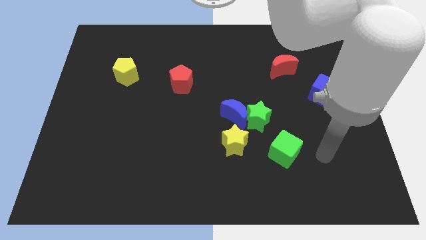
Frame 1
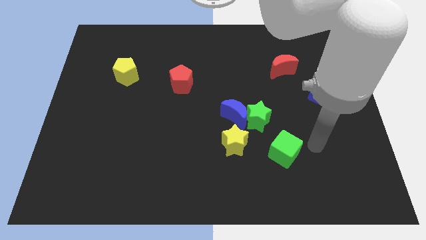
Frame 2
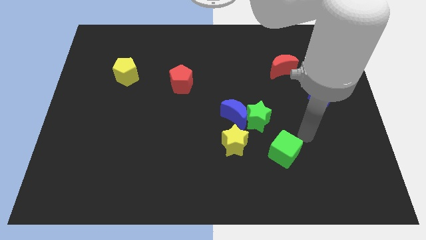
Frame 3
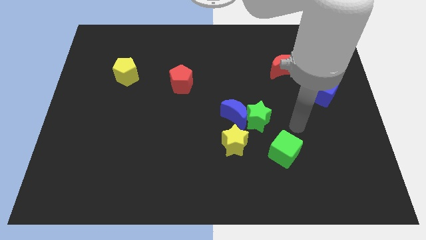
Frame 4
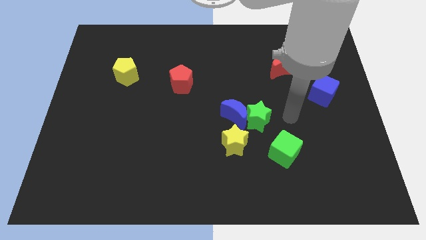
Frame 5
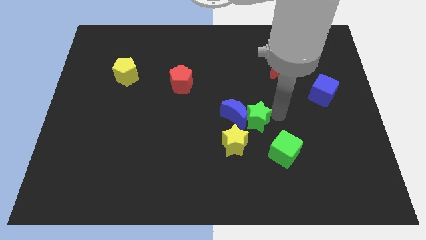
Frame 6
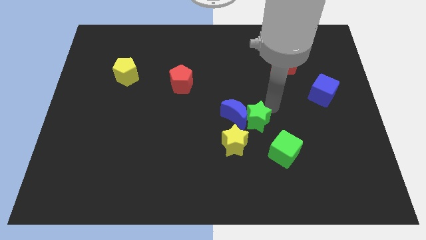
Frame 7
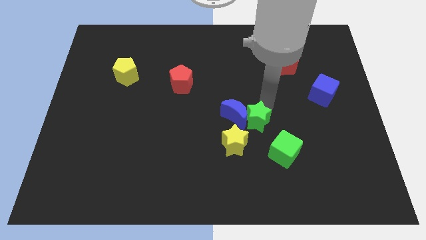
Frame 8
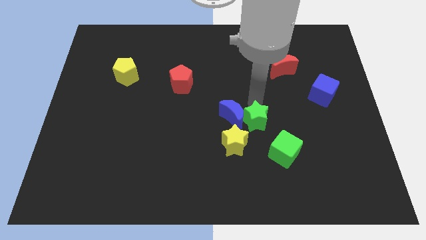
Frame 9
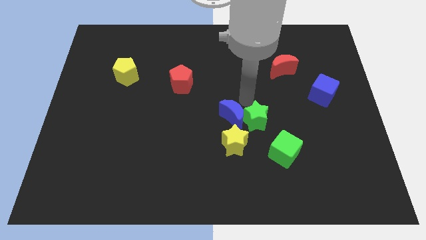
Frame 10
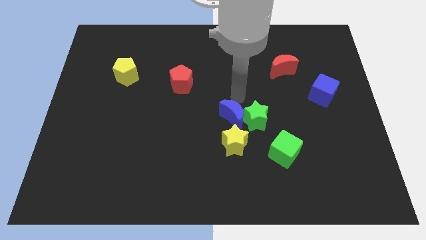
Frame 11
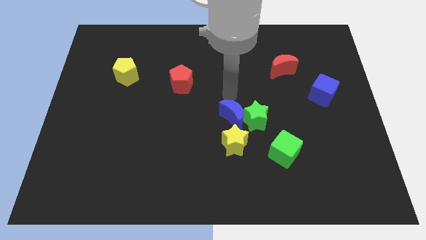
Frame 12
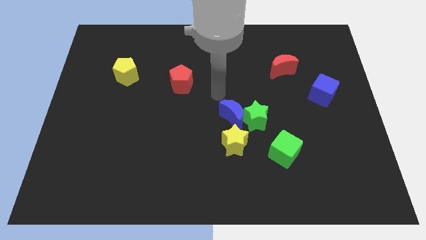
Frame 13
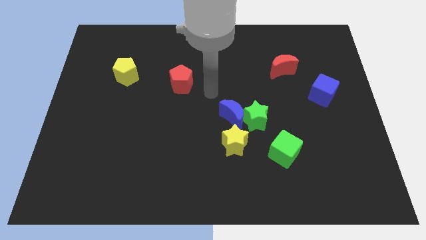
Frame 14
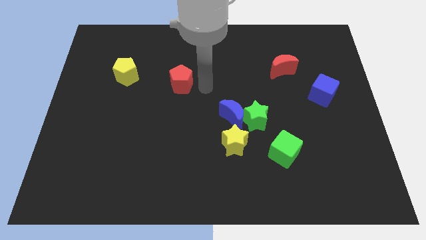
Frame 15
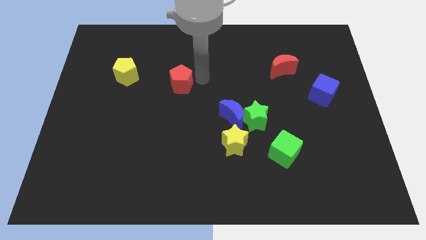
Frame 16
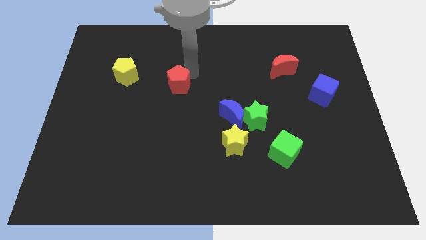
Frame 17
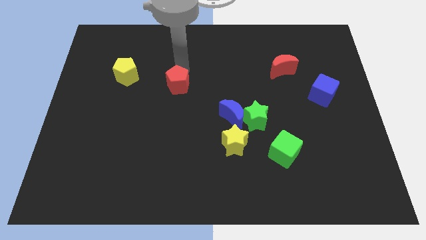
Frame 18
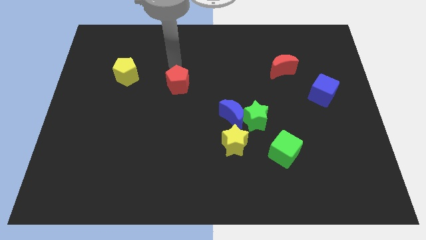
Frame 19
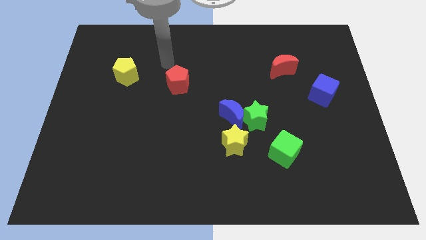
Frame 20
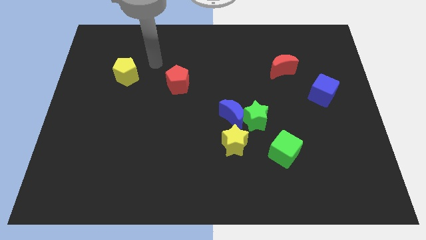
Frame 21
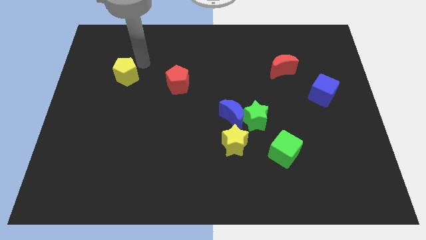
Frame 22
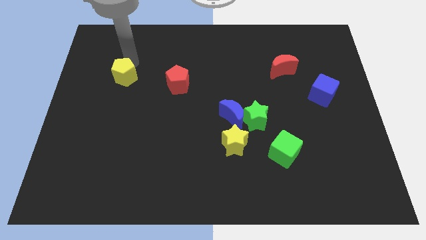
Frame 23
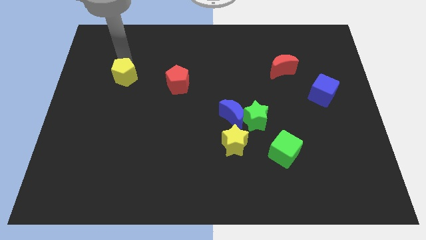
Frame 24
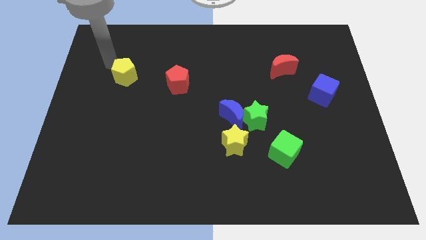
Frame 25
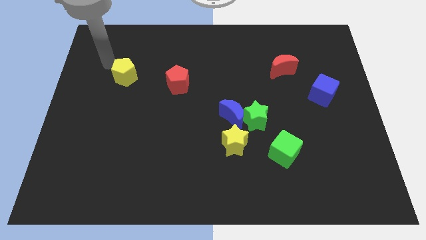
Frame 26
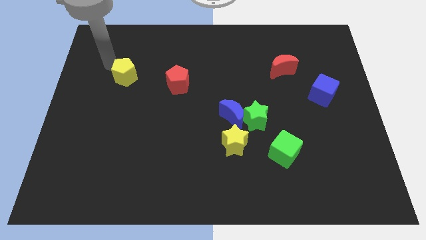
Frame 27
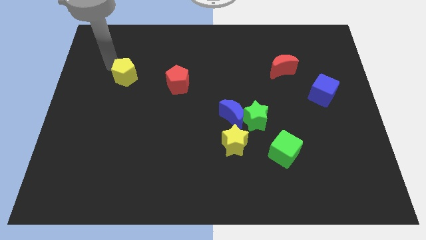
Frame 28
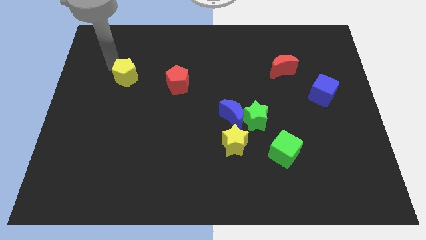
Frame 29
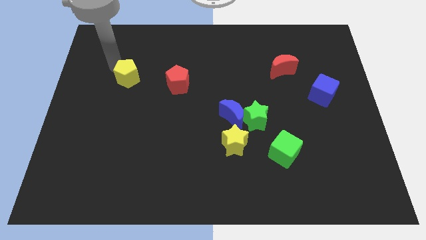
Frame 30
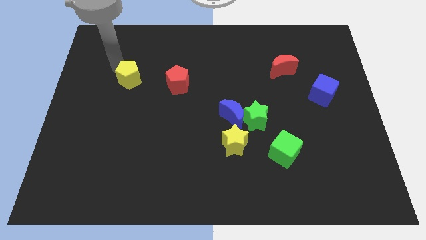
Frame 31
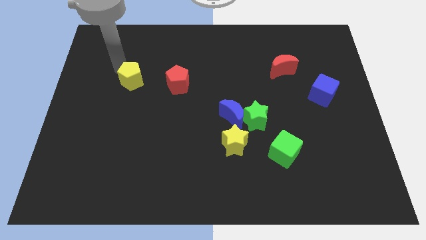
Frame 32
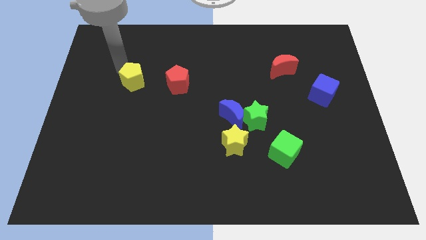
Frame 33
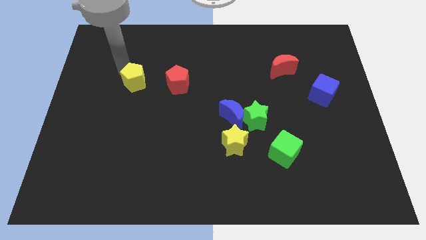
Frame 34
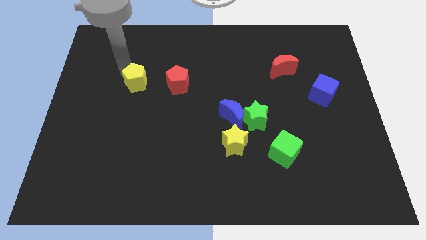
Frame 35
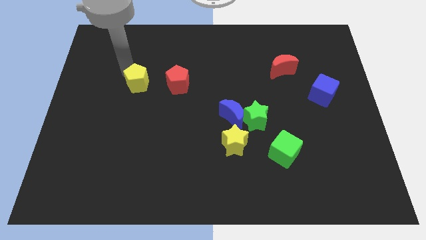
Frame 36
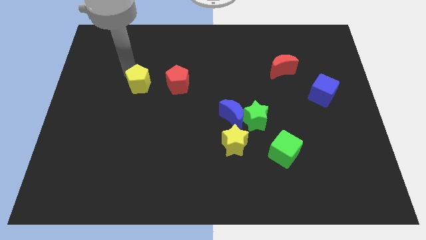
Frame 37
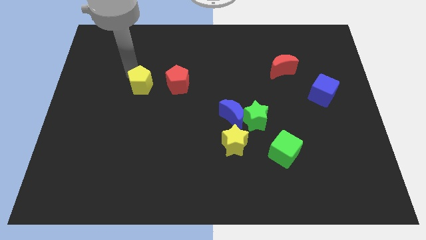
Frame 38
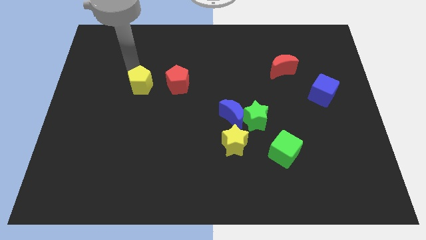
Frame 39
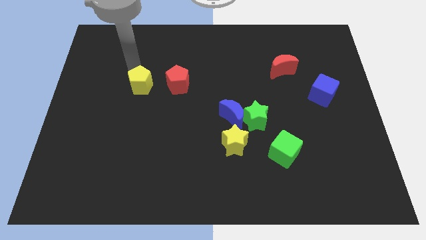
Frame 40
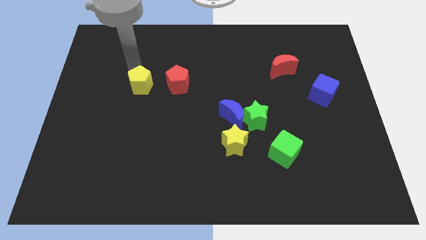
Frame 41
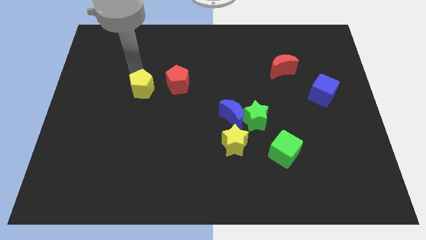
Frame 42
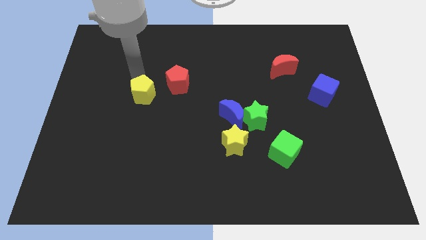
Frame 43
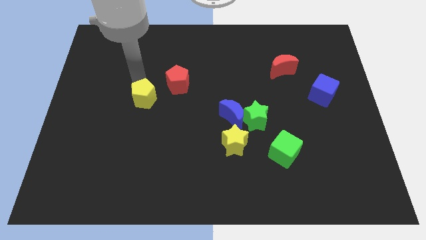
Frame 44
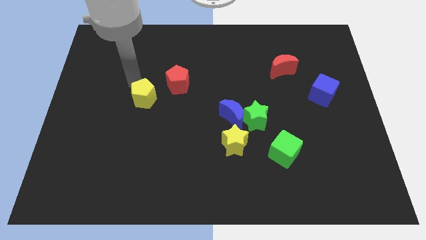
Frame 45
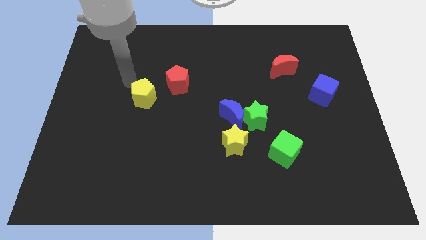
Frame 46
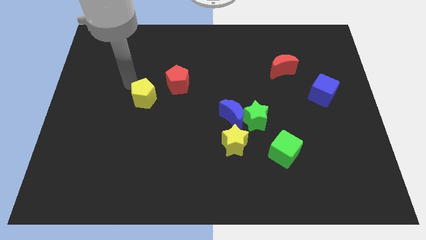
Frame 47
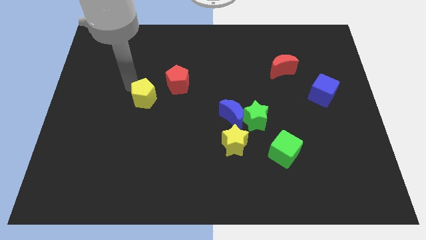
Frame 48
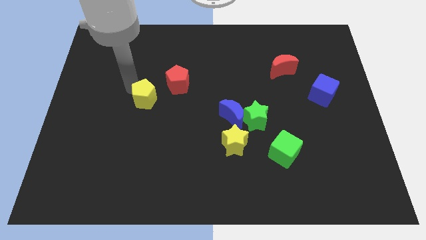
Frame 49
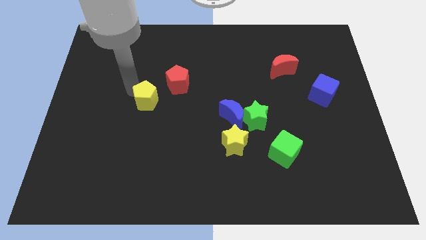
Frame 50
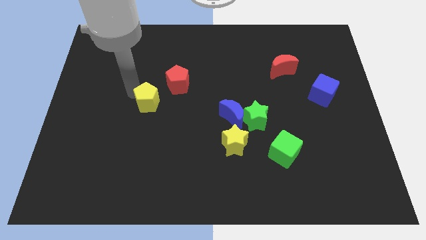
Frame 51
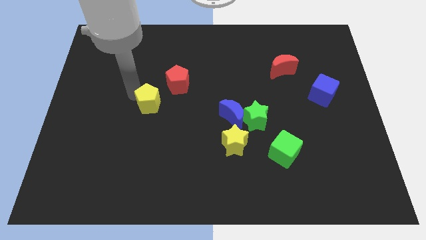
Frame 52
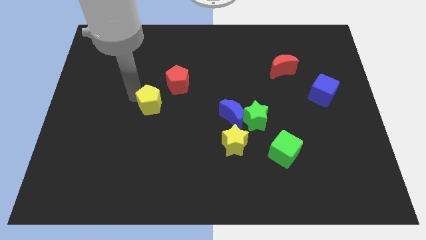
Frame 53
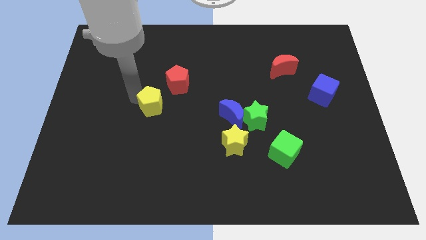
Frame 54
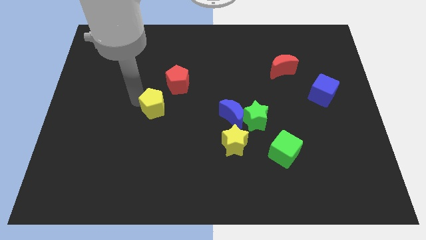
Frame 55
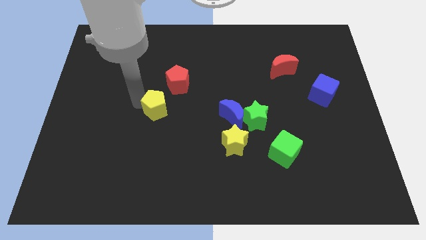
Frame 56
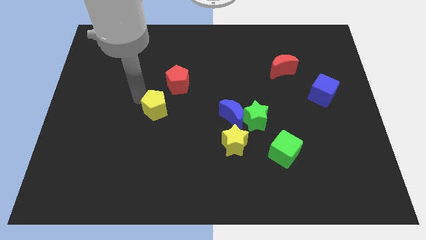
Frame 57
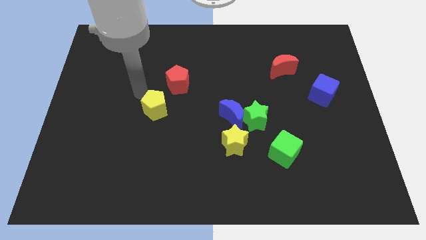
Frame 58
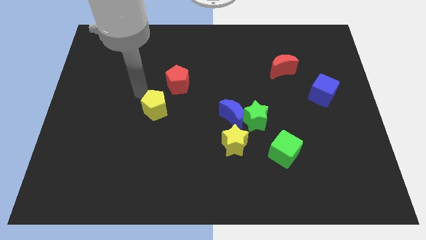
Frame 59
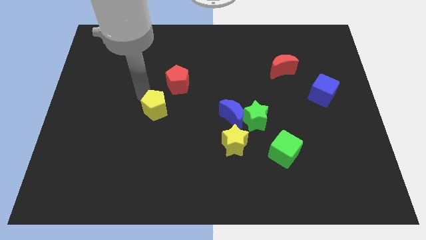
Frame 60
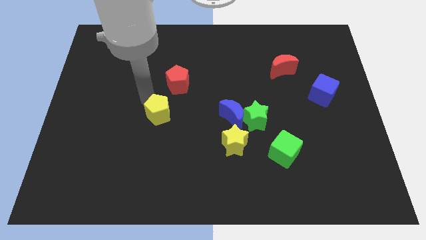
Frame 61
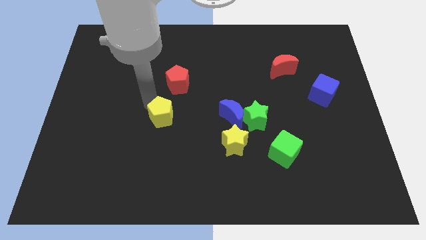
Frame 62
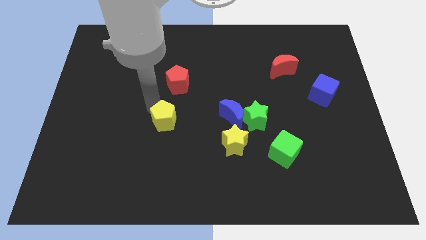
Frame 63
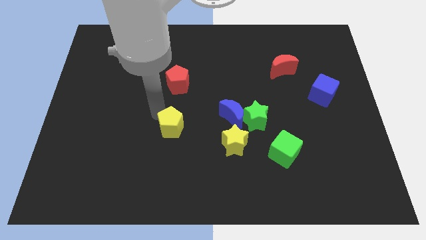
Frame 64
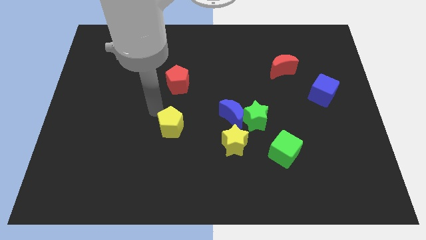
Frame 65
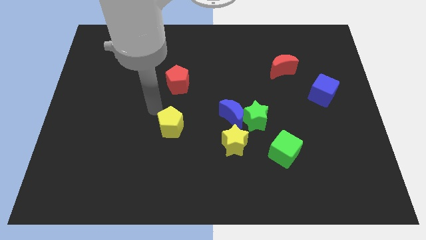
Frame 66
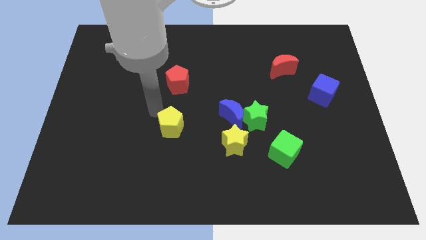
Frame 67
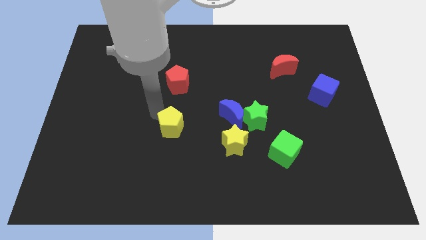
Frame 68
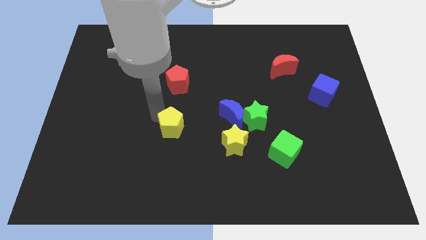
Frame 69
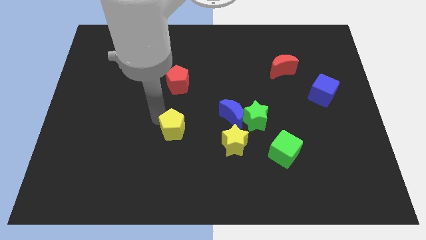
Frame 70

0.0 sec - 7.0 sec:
put the yellow pentagon to the left side of the yellow star
